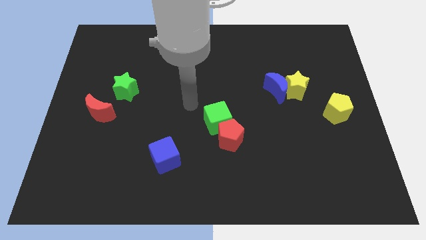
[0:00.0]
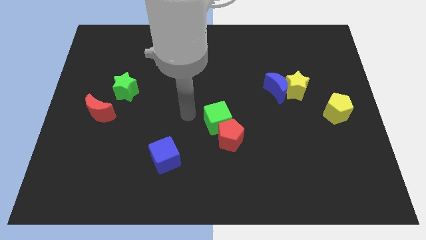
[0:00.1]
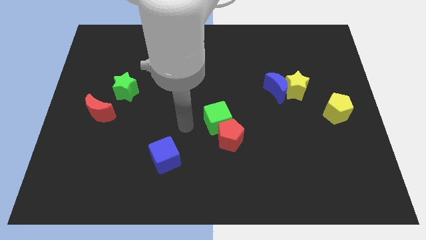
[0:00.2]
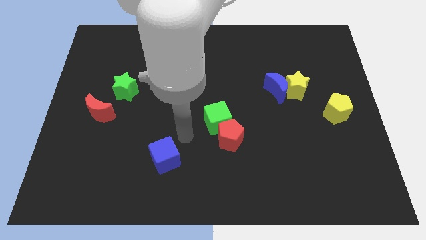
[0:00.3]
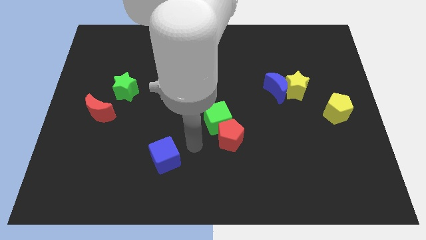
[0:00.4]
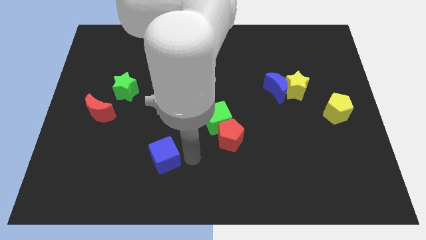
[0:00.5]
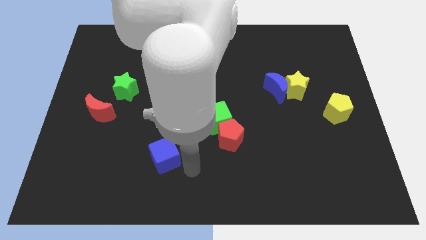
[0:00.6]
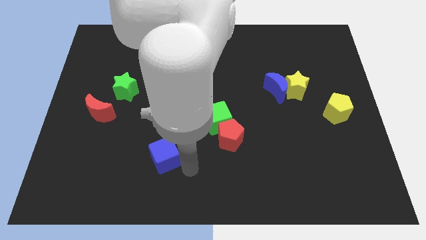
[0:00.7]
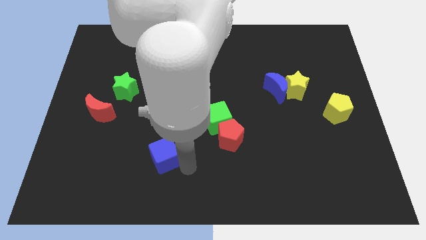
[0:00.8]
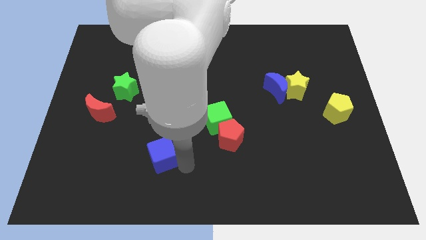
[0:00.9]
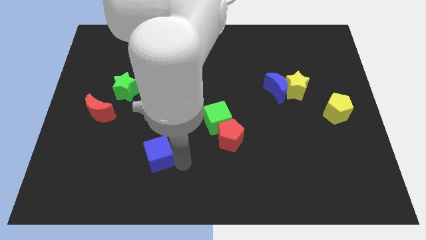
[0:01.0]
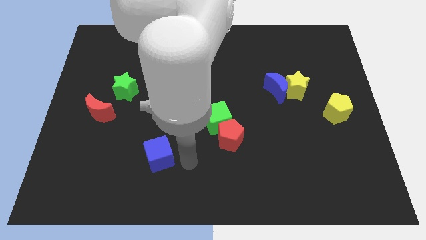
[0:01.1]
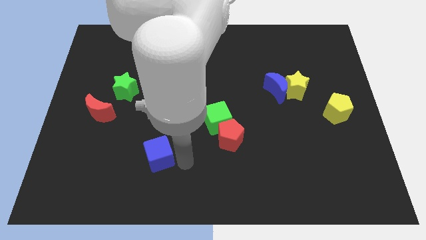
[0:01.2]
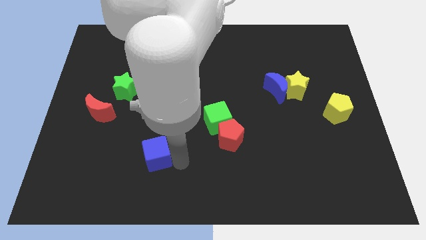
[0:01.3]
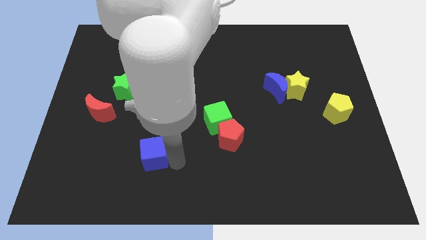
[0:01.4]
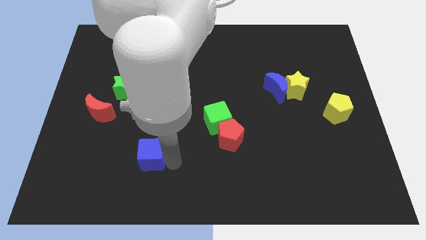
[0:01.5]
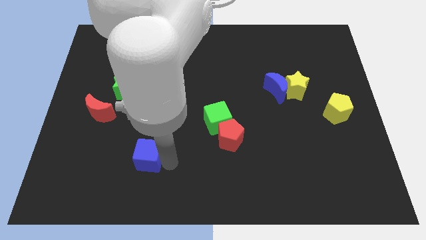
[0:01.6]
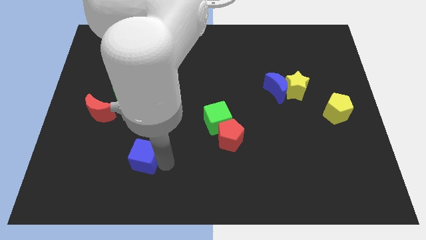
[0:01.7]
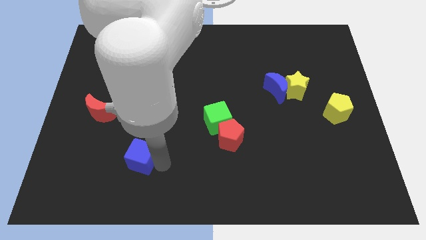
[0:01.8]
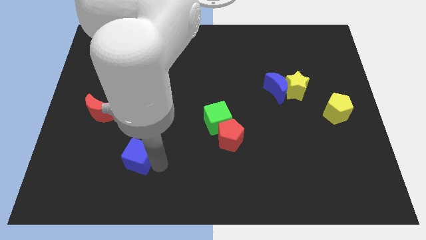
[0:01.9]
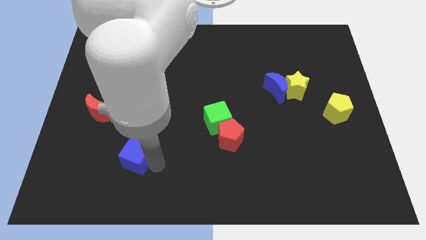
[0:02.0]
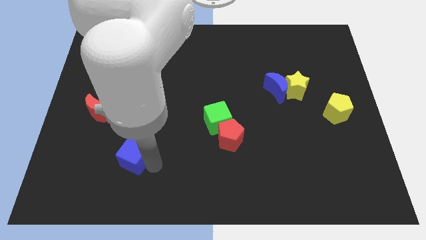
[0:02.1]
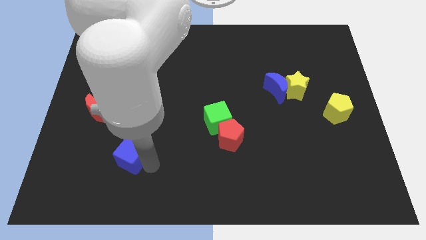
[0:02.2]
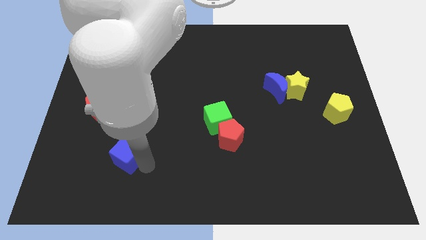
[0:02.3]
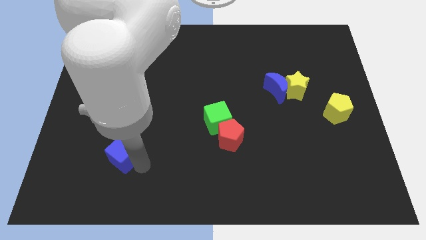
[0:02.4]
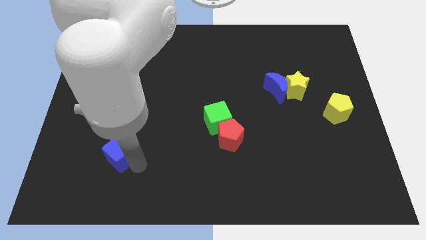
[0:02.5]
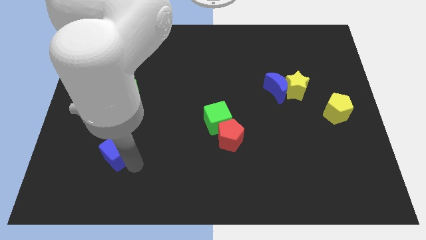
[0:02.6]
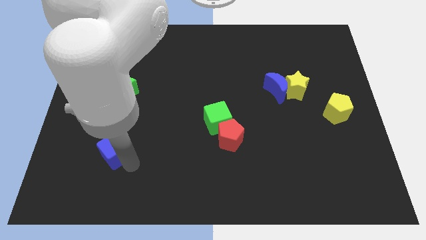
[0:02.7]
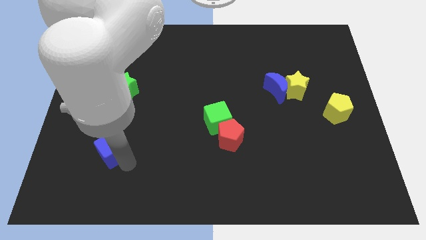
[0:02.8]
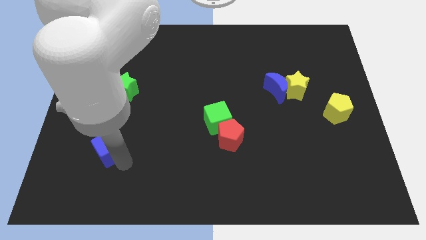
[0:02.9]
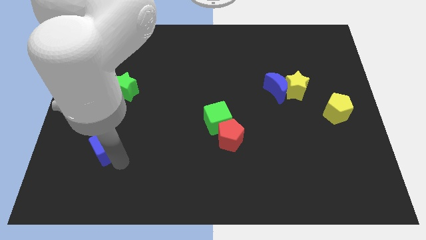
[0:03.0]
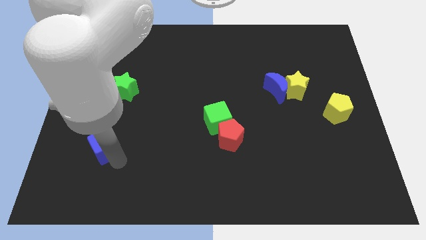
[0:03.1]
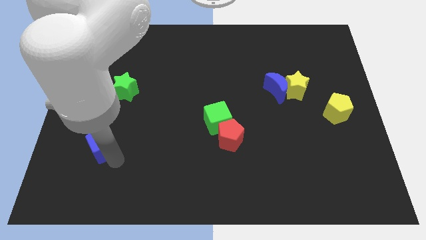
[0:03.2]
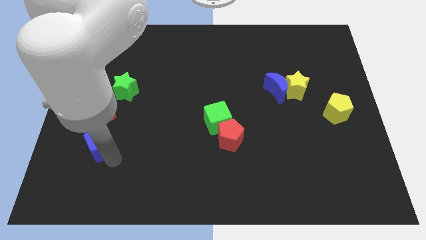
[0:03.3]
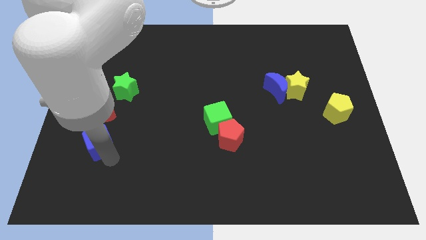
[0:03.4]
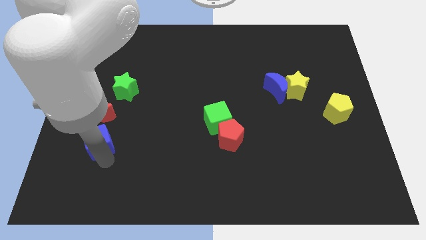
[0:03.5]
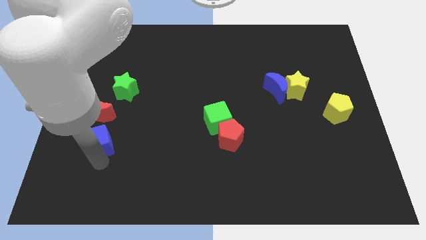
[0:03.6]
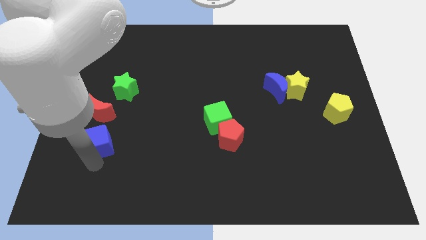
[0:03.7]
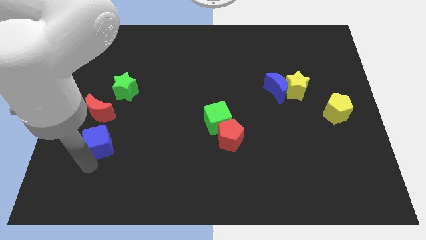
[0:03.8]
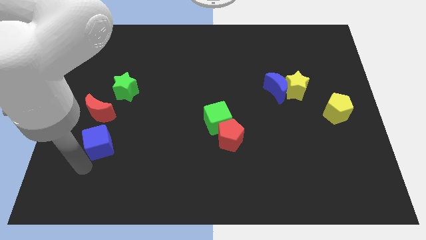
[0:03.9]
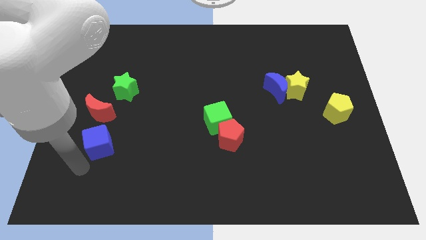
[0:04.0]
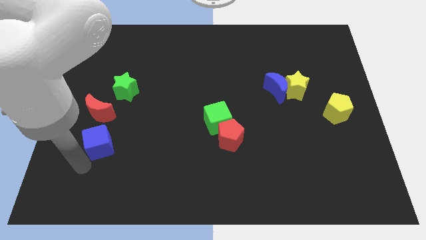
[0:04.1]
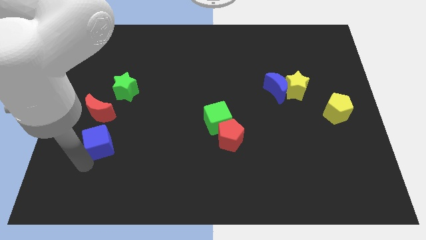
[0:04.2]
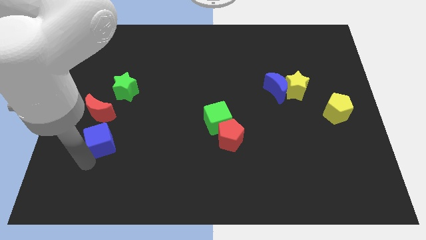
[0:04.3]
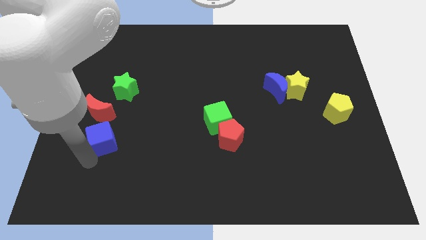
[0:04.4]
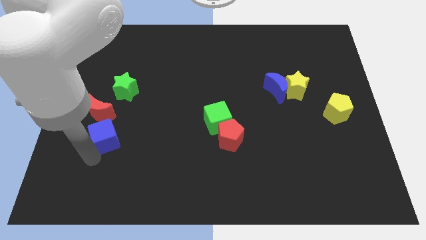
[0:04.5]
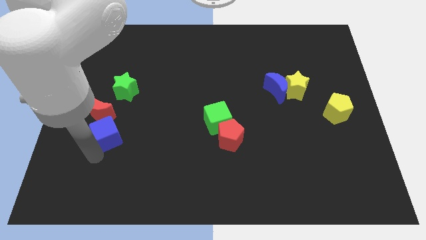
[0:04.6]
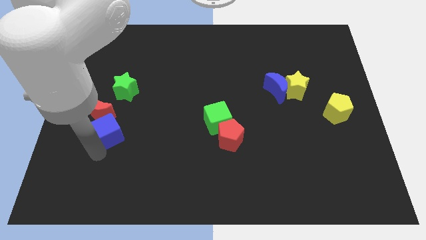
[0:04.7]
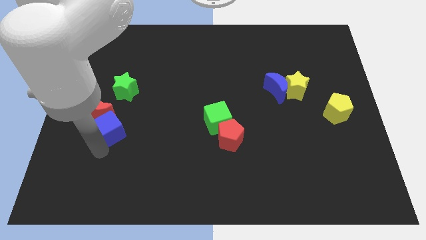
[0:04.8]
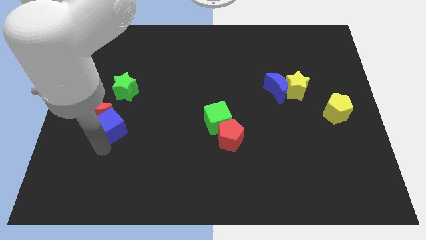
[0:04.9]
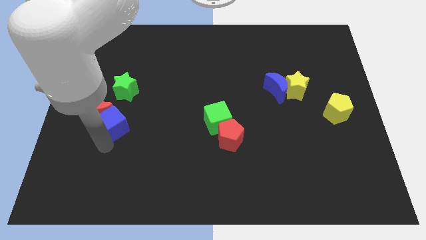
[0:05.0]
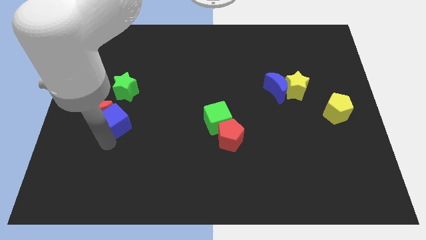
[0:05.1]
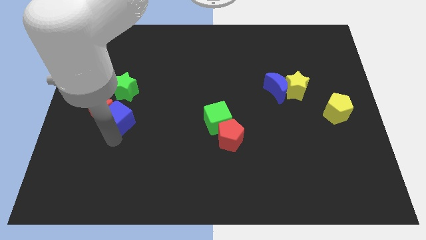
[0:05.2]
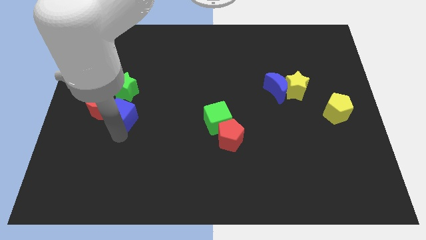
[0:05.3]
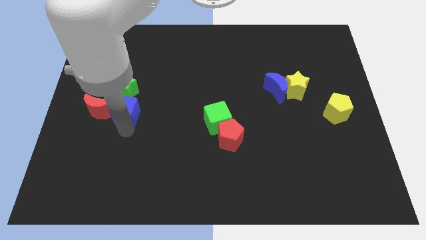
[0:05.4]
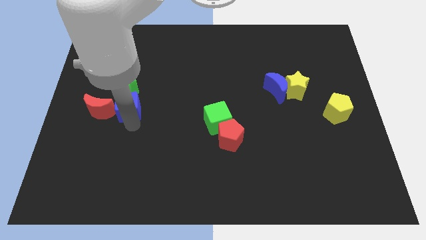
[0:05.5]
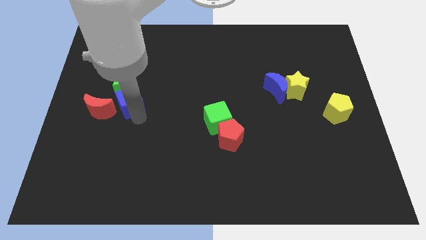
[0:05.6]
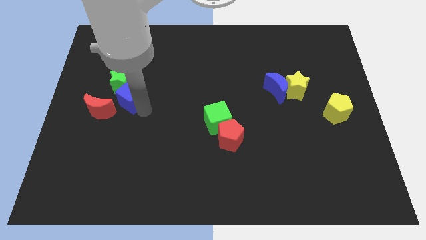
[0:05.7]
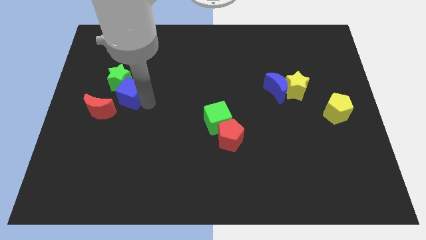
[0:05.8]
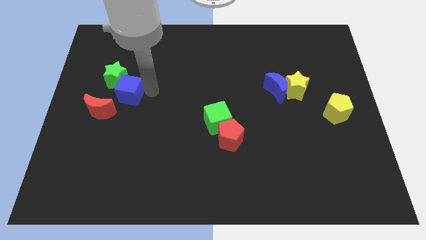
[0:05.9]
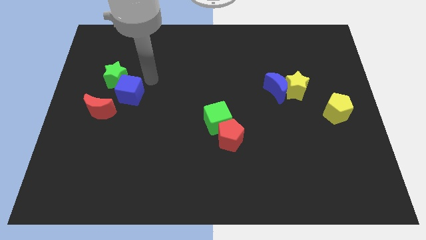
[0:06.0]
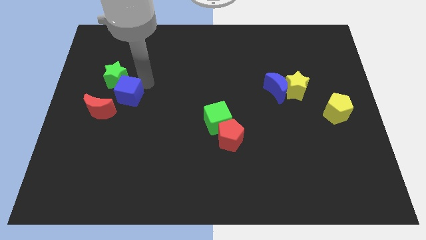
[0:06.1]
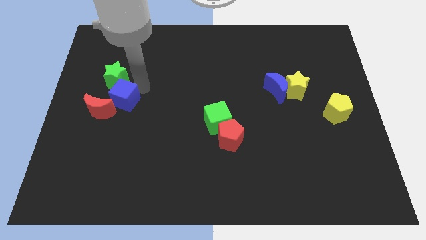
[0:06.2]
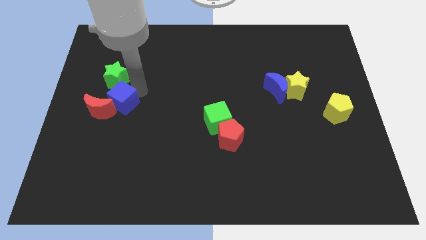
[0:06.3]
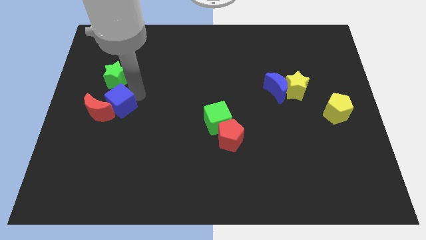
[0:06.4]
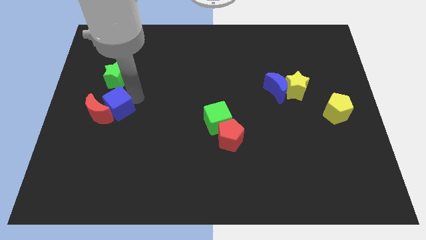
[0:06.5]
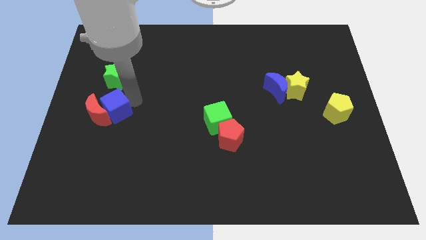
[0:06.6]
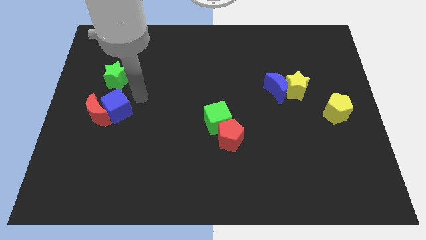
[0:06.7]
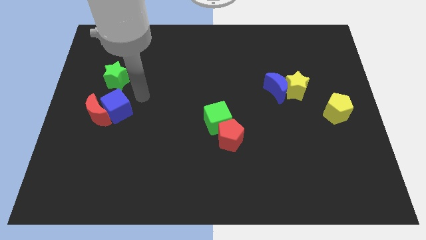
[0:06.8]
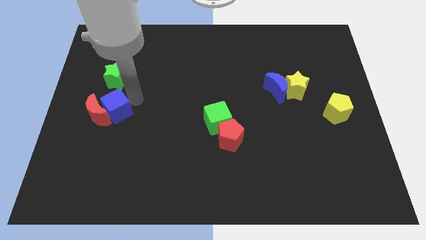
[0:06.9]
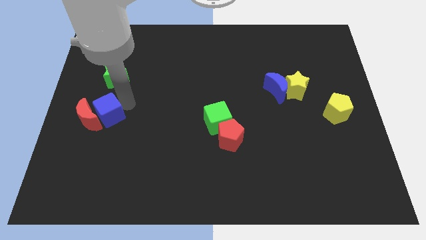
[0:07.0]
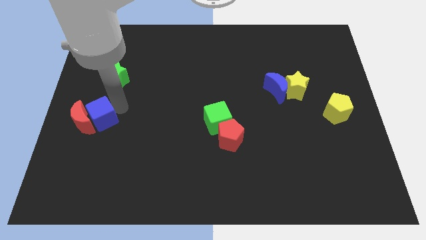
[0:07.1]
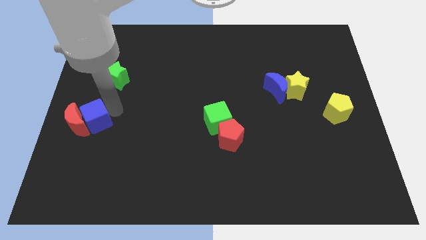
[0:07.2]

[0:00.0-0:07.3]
move the blue cube to the left side of the board

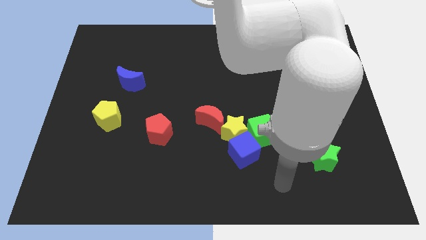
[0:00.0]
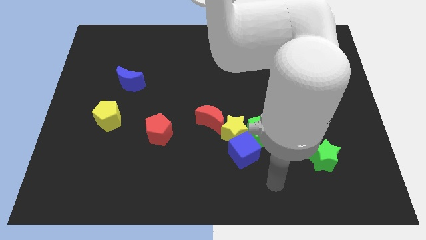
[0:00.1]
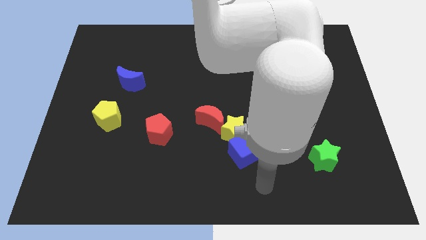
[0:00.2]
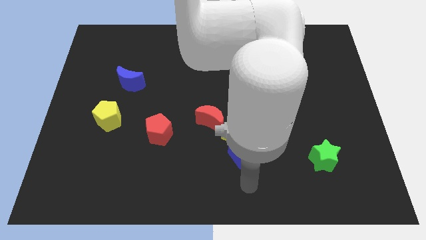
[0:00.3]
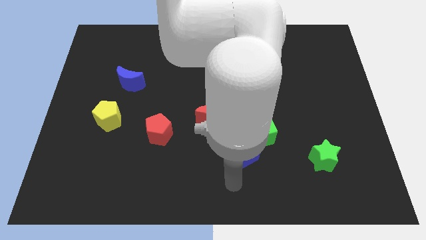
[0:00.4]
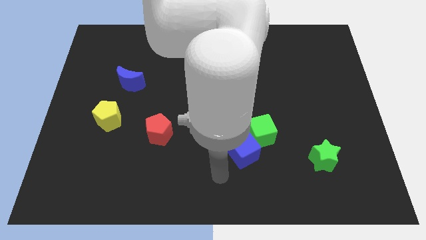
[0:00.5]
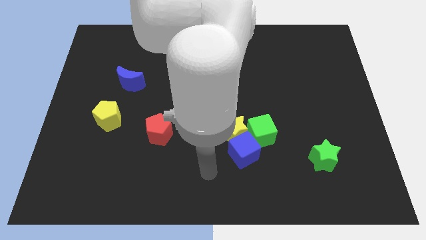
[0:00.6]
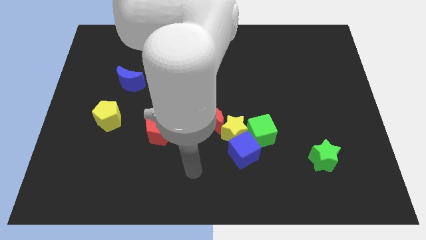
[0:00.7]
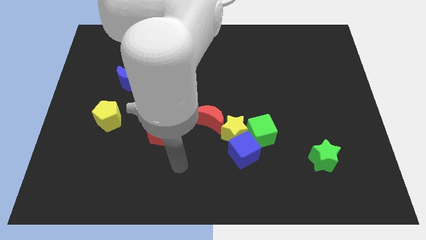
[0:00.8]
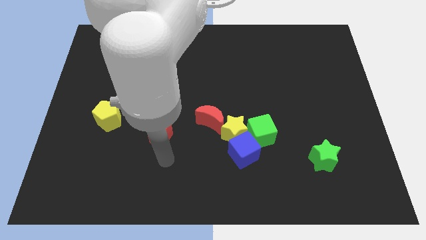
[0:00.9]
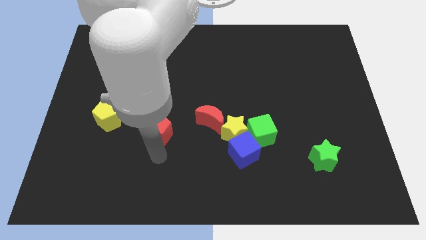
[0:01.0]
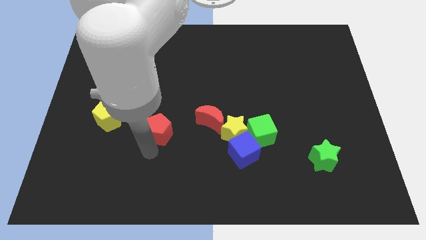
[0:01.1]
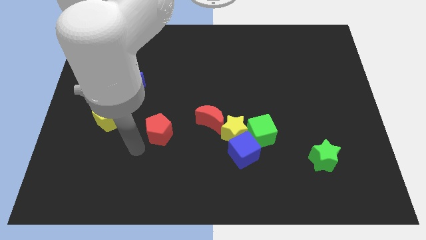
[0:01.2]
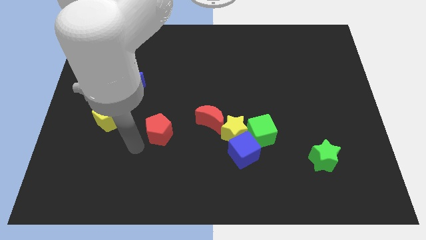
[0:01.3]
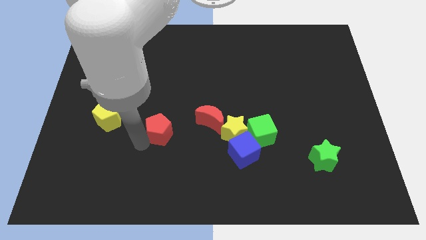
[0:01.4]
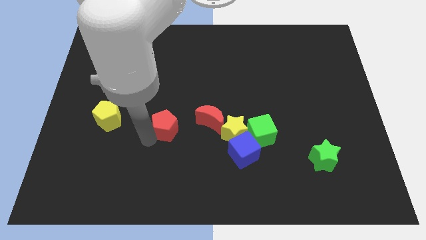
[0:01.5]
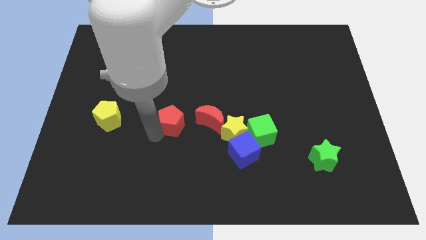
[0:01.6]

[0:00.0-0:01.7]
push the red pentagon to the middle of the board
